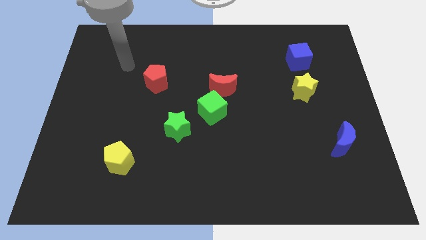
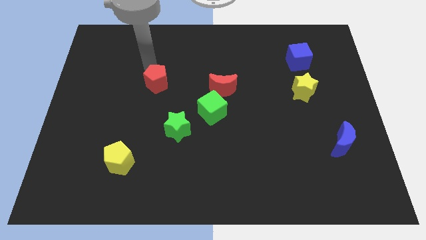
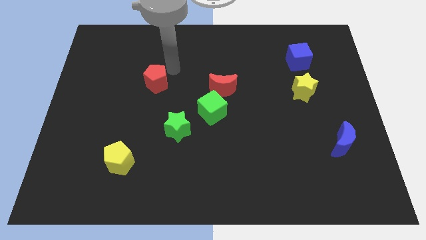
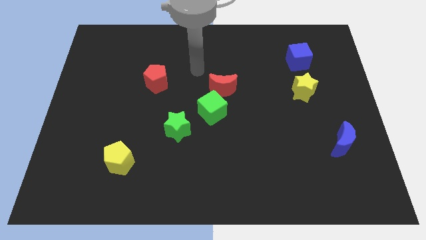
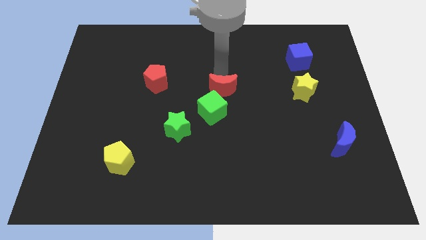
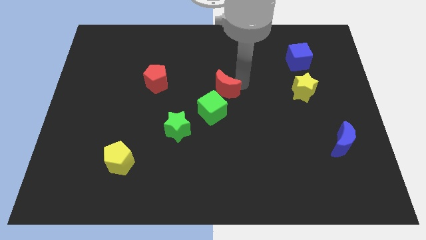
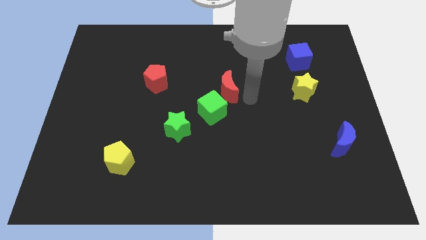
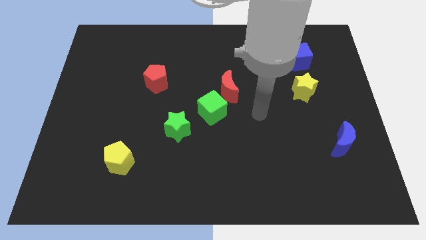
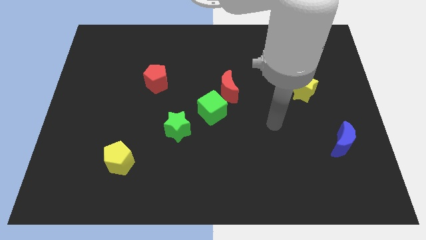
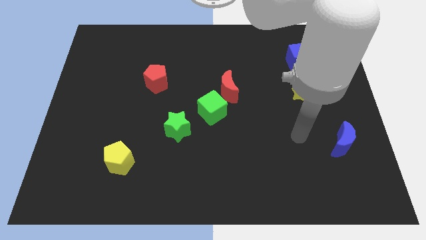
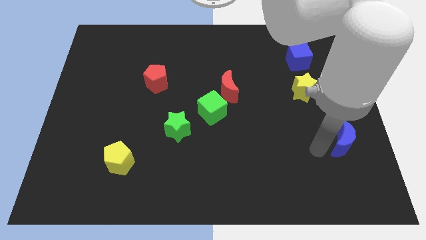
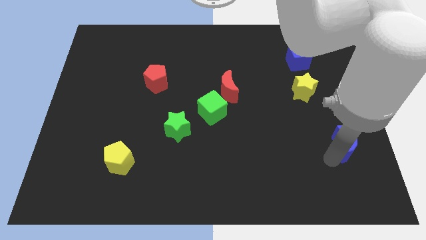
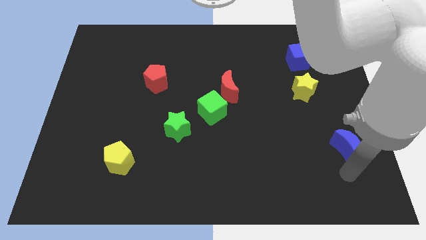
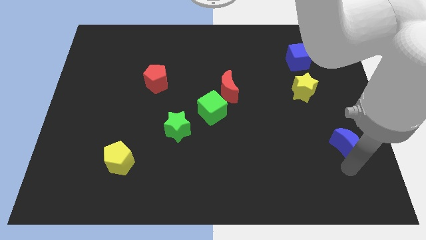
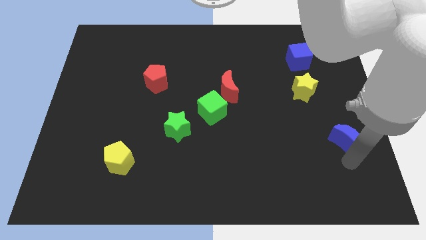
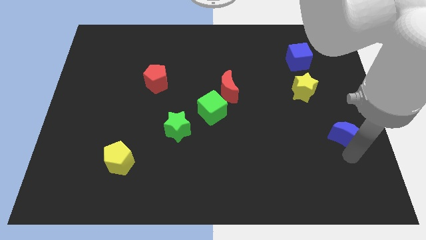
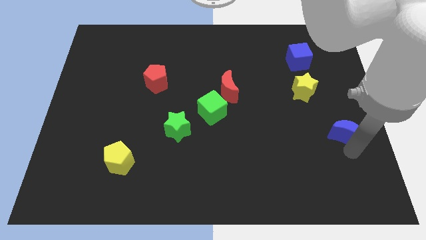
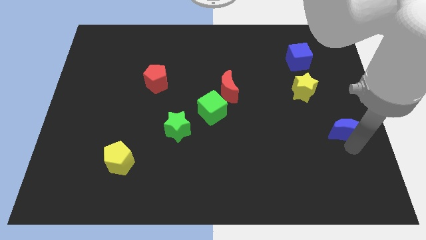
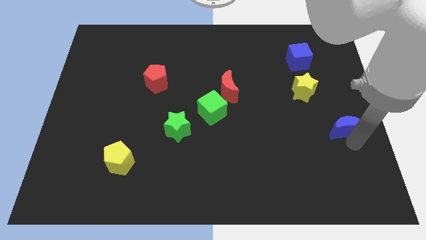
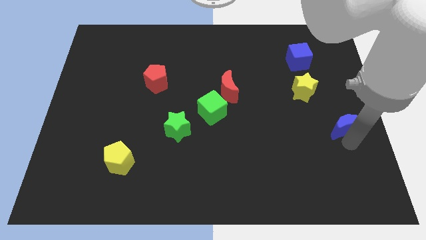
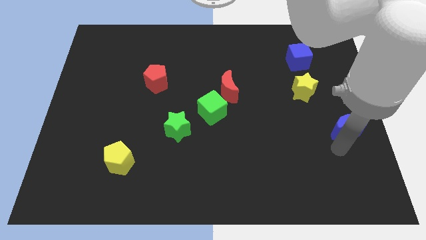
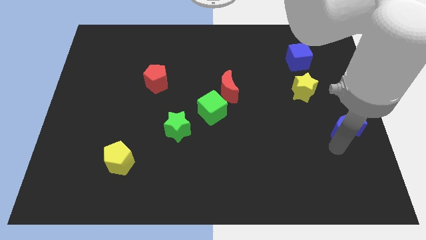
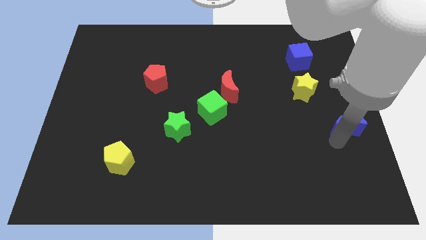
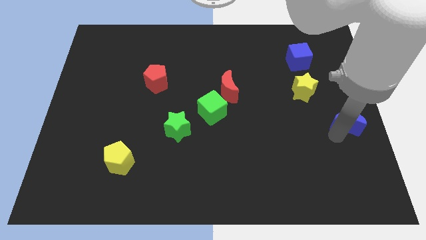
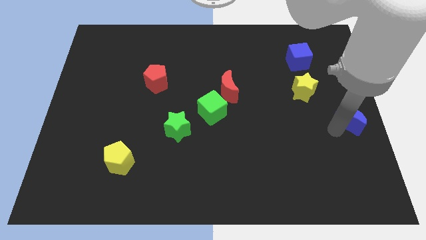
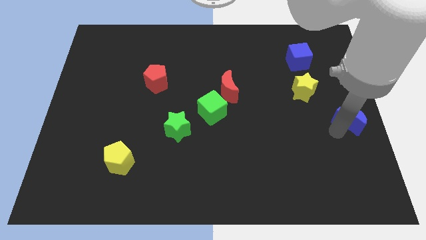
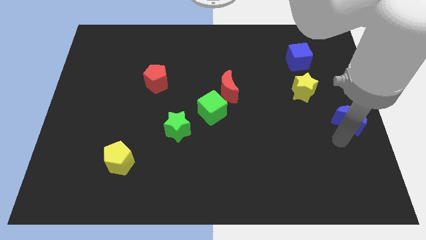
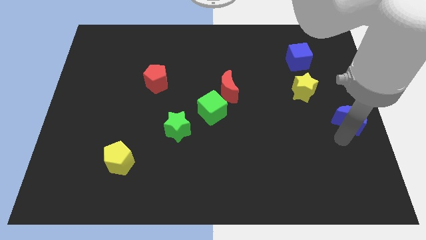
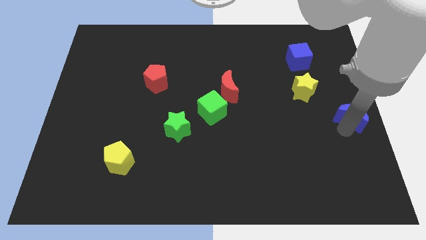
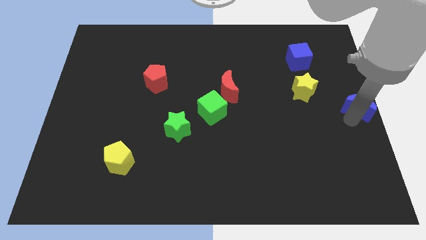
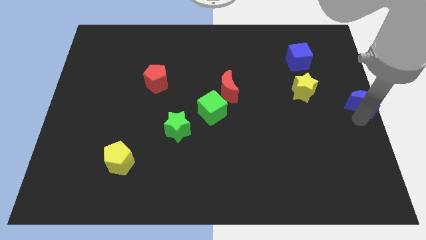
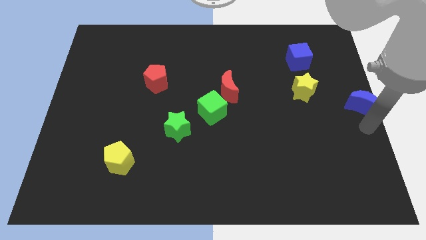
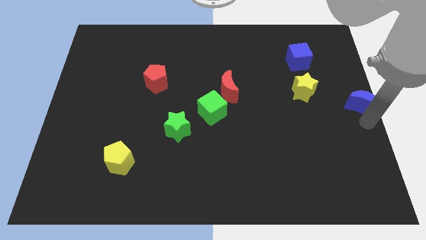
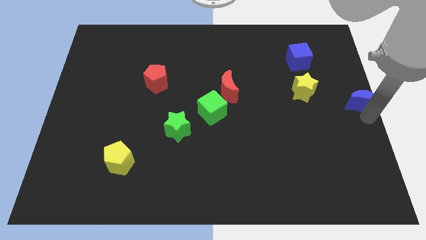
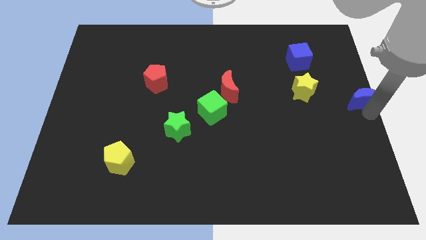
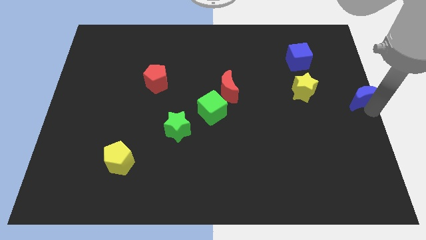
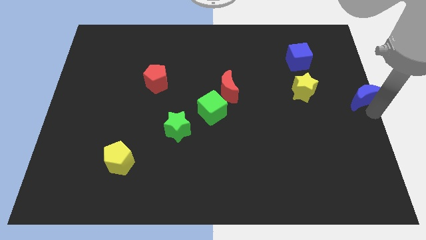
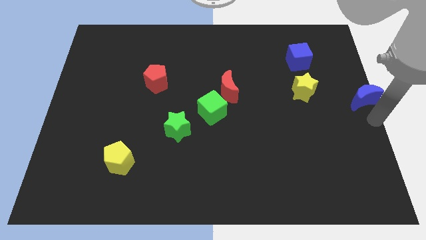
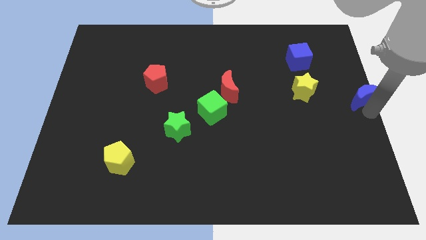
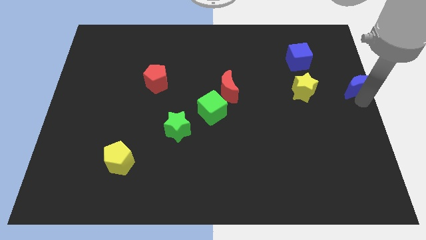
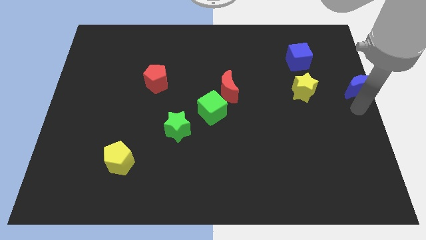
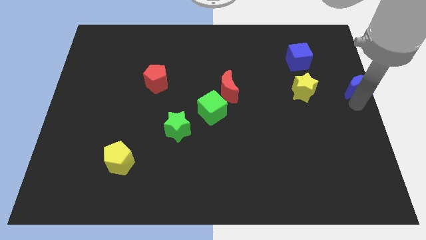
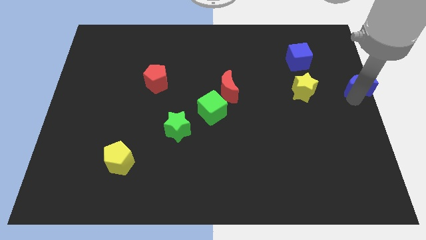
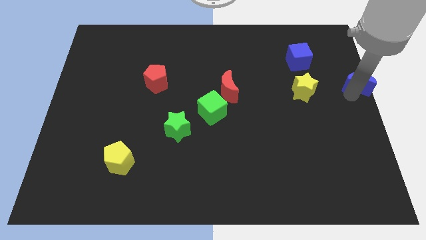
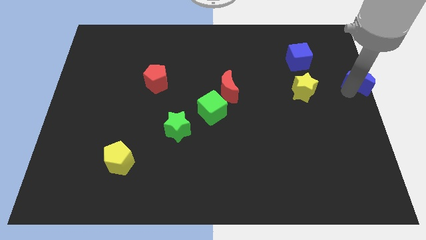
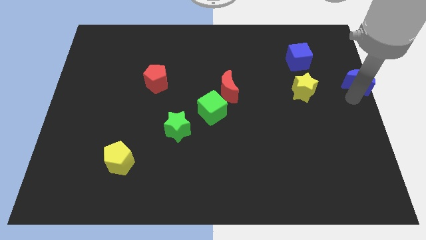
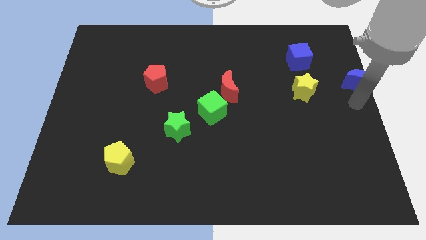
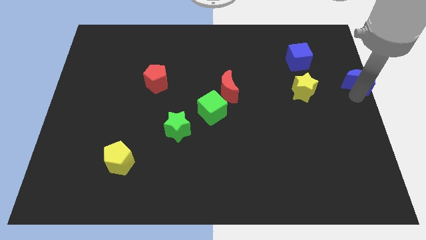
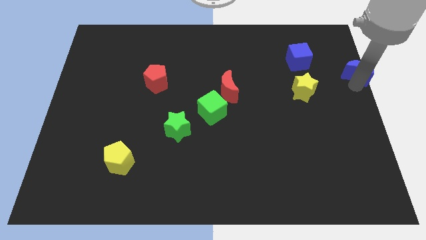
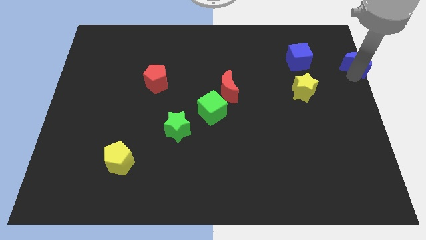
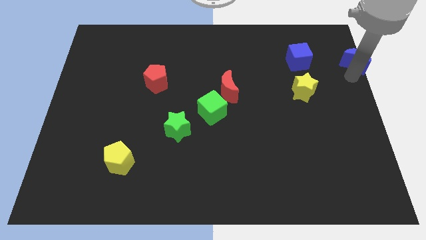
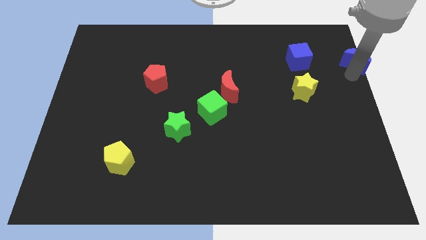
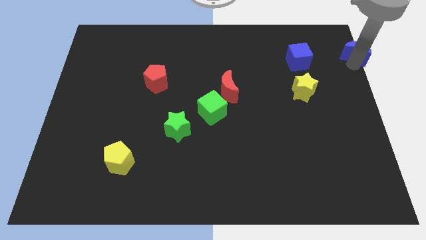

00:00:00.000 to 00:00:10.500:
move the blue moon to the upper right corner

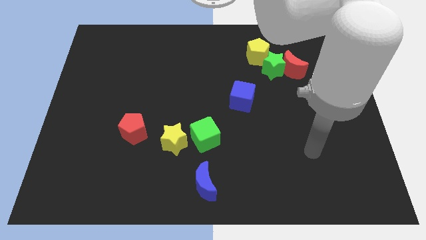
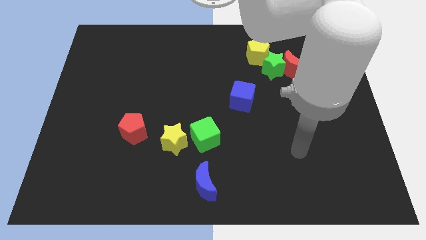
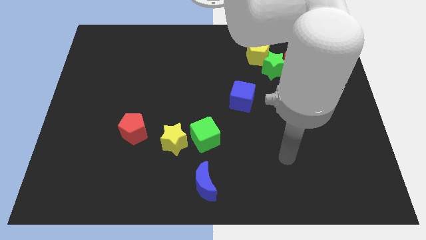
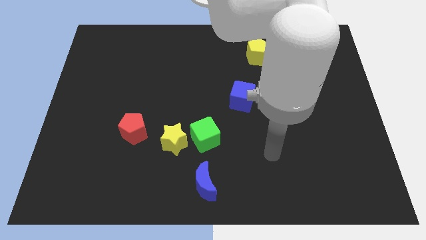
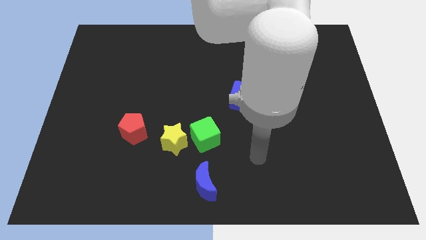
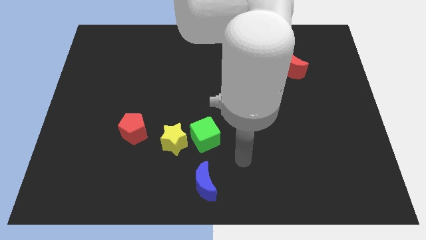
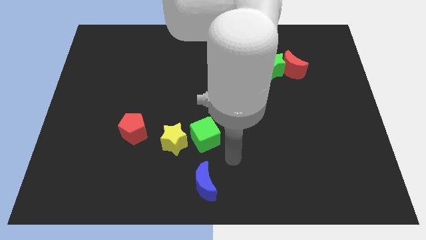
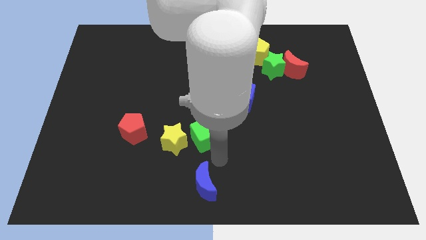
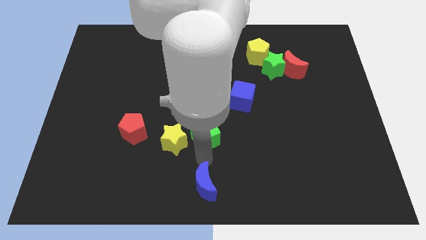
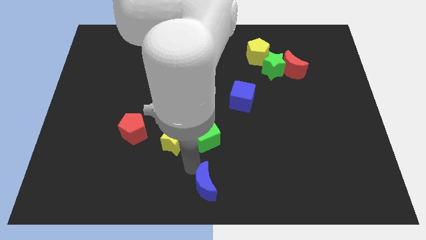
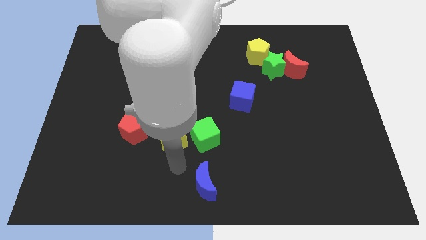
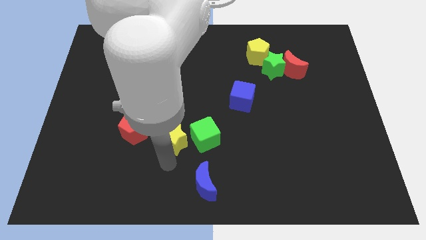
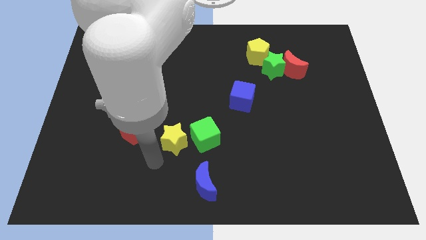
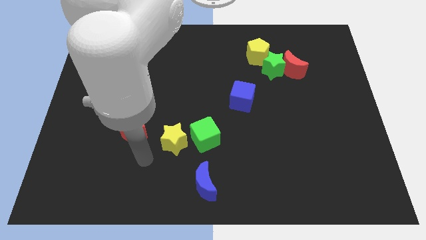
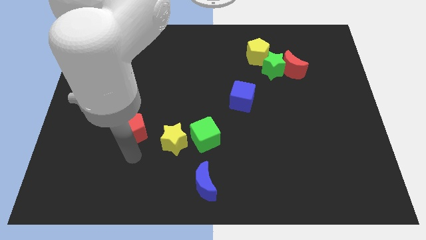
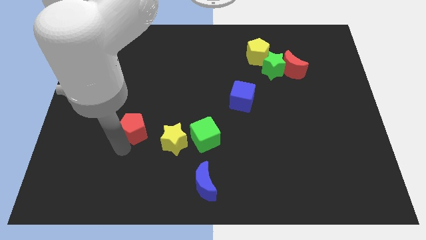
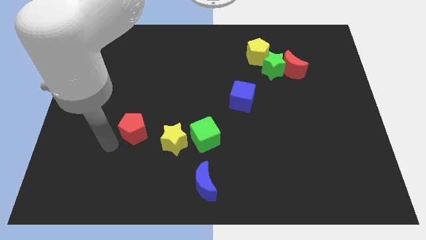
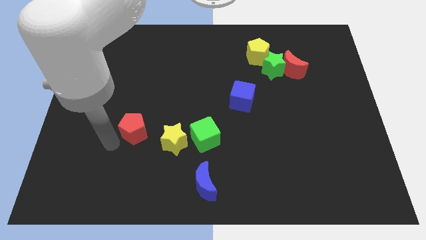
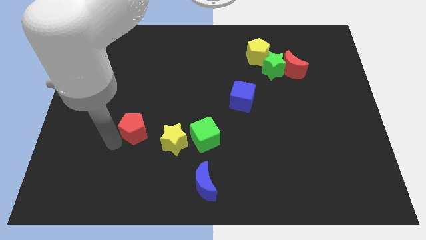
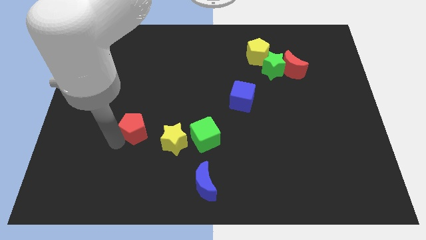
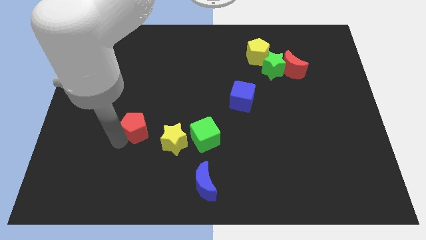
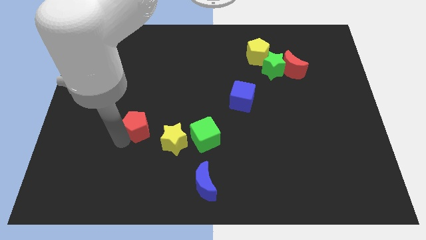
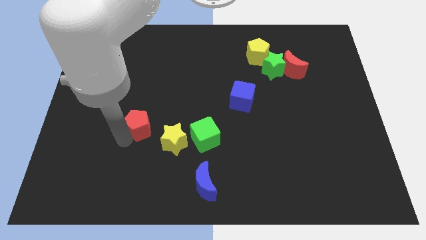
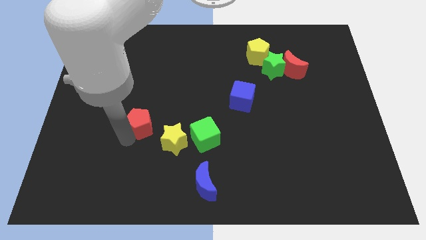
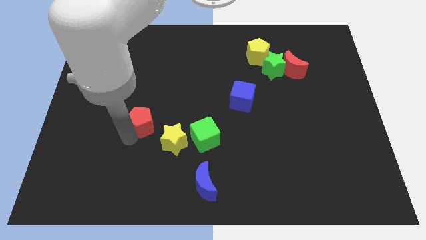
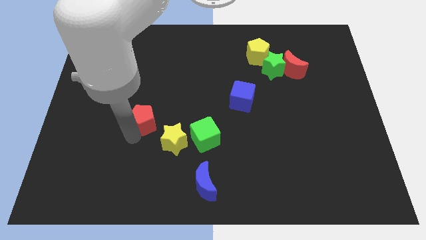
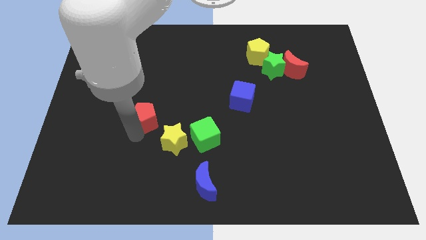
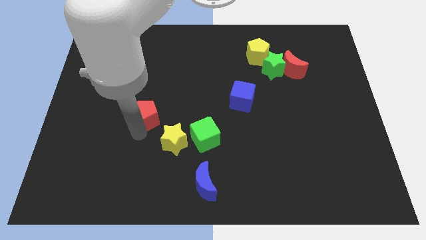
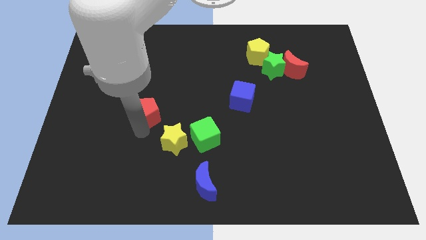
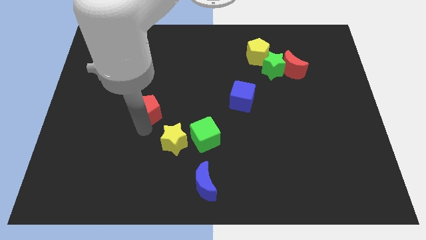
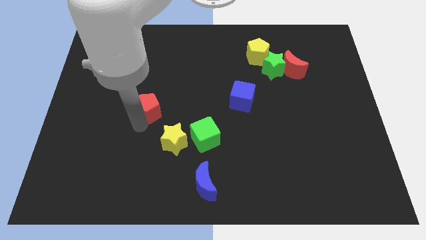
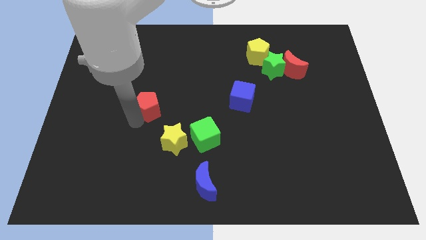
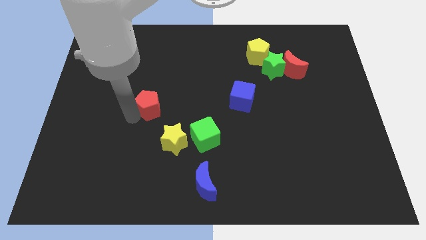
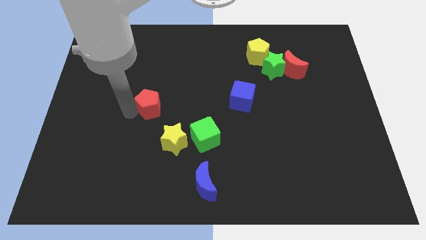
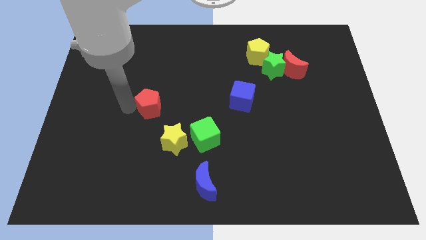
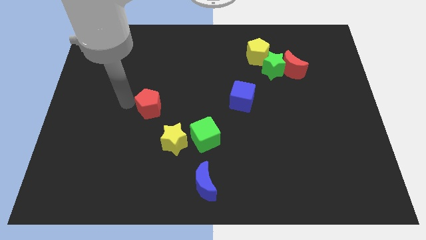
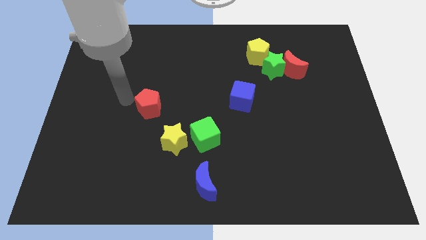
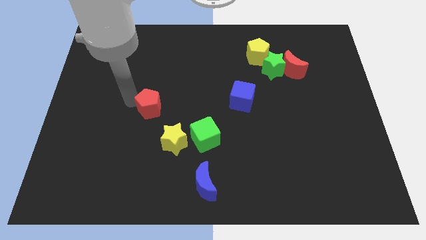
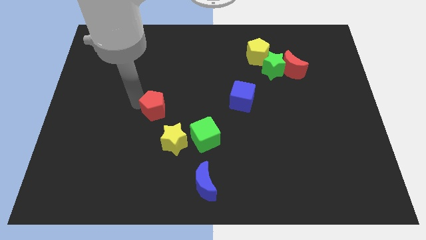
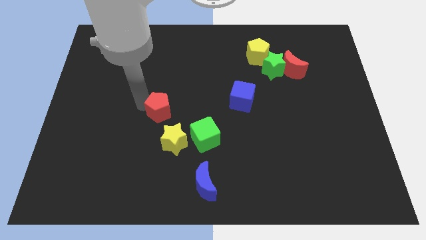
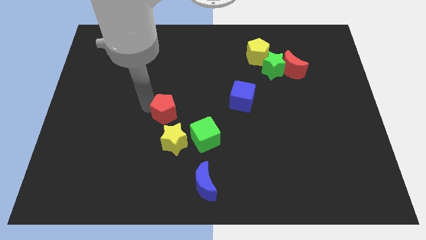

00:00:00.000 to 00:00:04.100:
slide the red pentagon to the center
